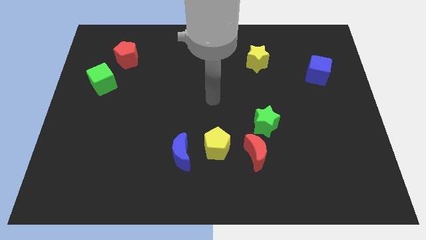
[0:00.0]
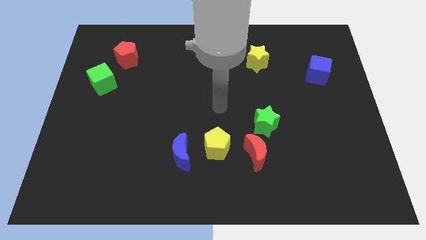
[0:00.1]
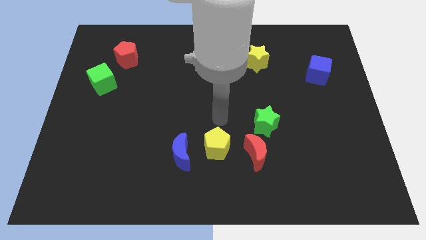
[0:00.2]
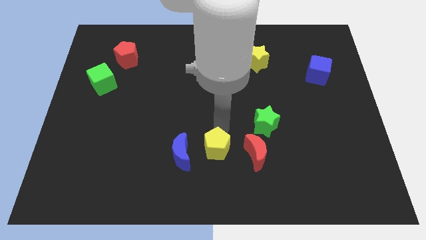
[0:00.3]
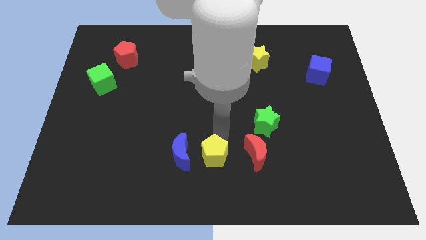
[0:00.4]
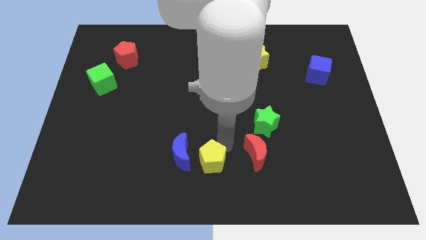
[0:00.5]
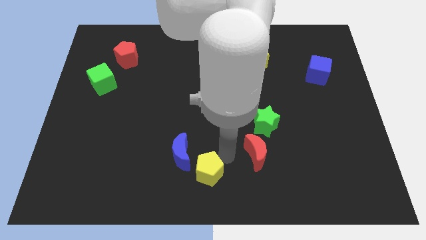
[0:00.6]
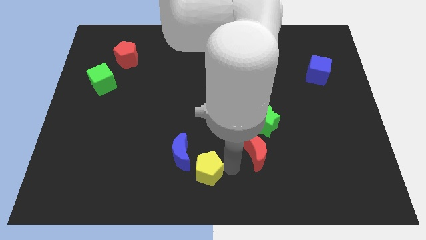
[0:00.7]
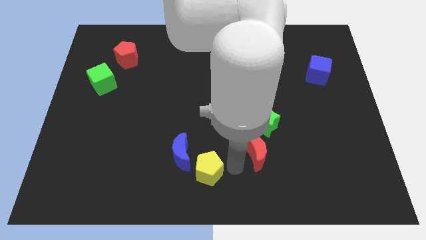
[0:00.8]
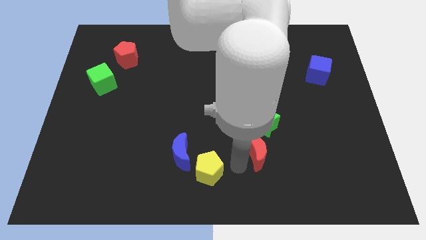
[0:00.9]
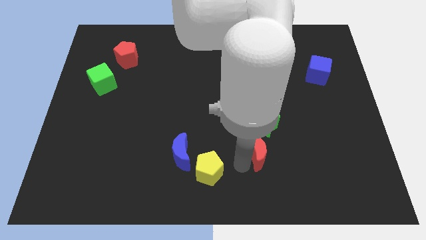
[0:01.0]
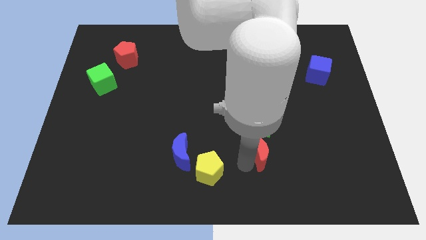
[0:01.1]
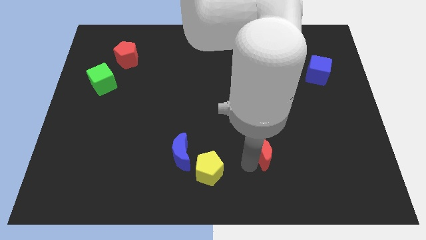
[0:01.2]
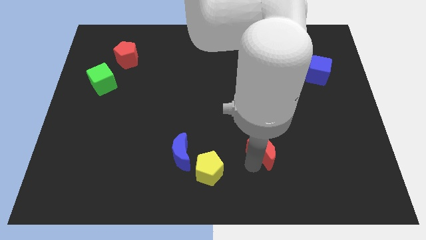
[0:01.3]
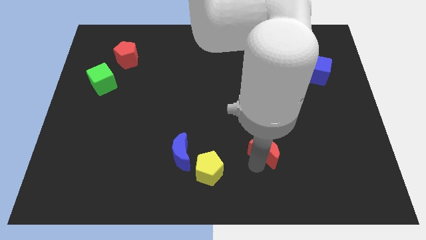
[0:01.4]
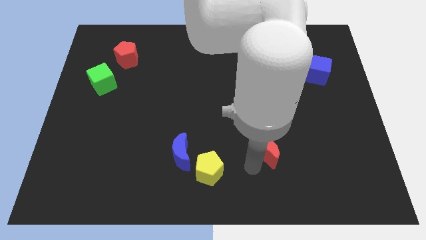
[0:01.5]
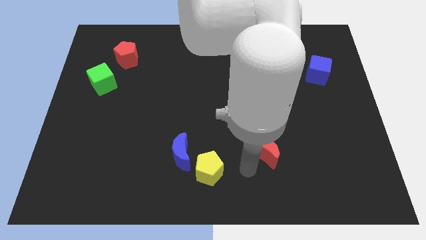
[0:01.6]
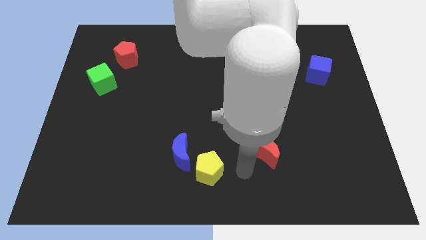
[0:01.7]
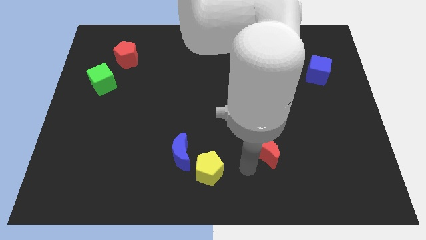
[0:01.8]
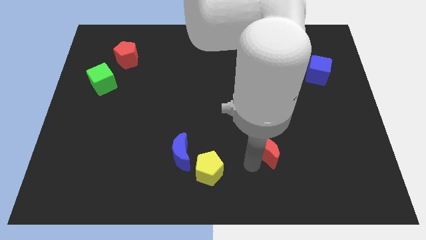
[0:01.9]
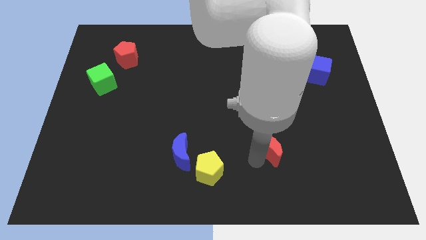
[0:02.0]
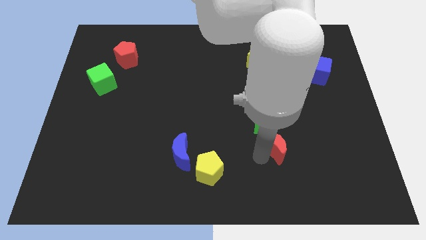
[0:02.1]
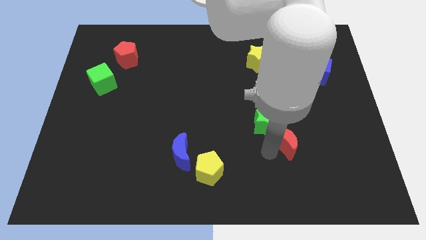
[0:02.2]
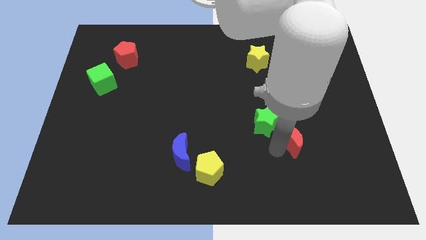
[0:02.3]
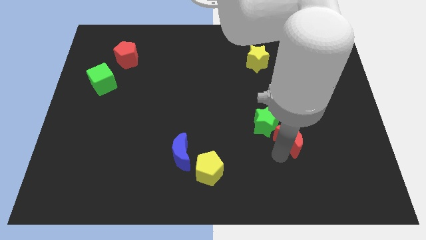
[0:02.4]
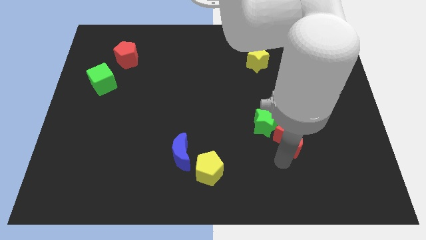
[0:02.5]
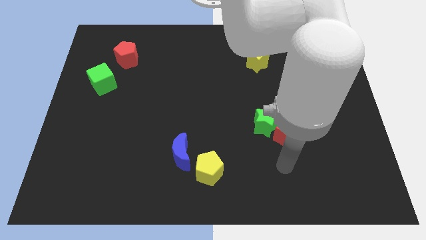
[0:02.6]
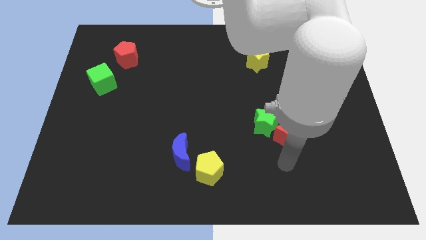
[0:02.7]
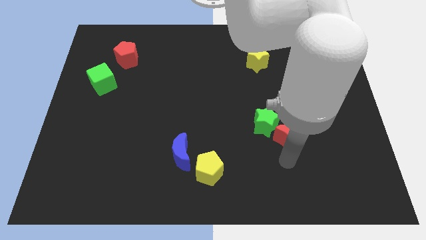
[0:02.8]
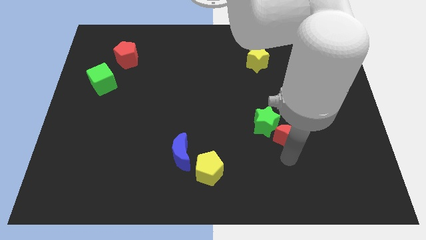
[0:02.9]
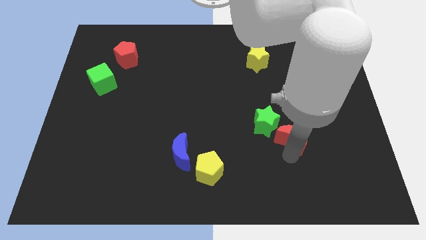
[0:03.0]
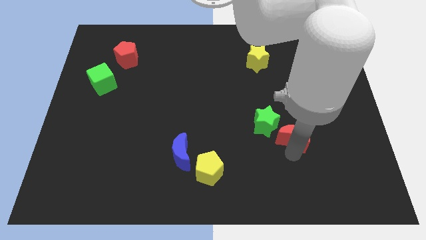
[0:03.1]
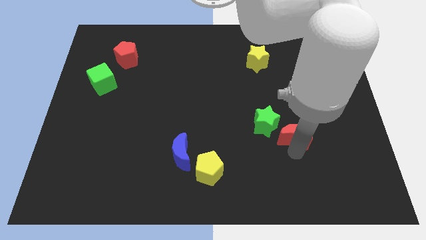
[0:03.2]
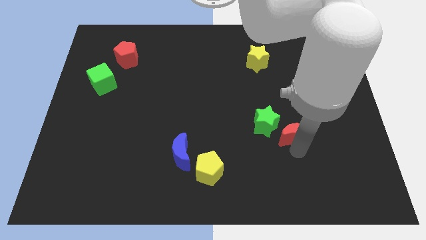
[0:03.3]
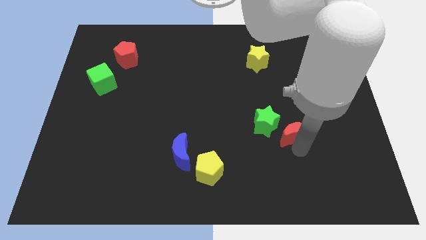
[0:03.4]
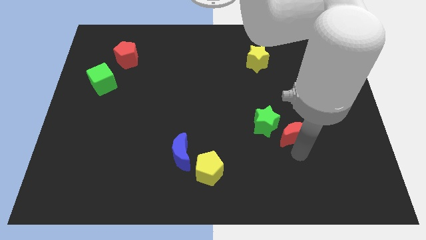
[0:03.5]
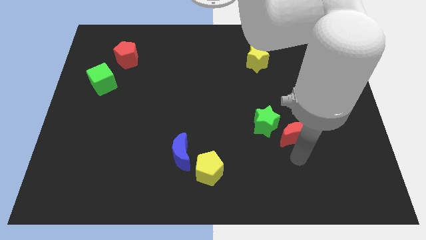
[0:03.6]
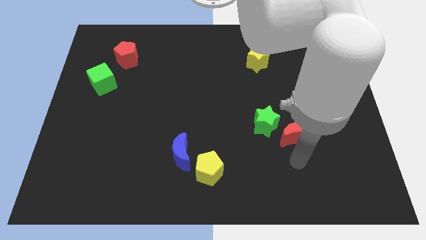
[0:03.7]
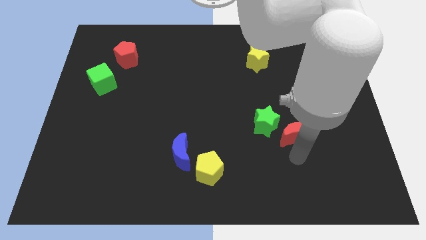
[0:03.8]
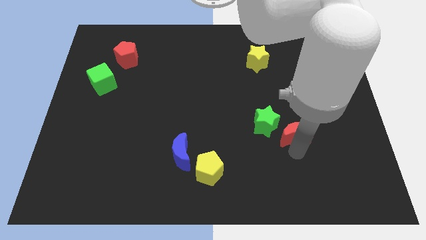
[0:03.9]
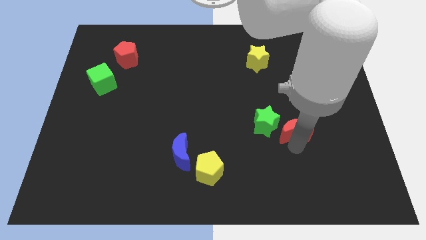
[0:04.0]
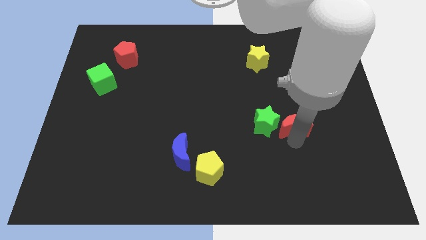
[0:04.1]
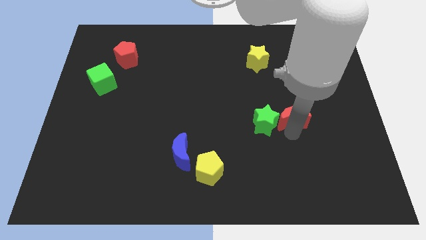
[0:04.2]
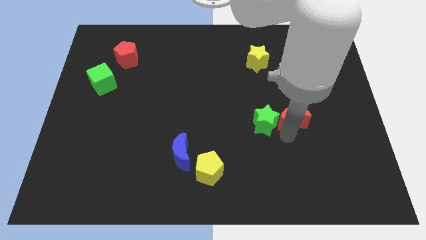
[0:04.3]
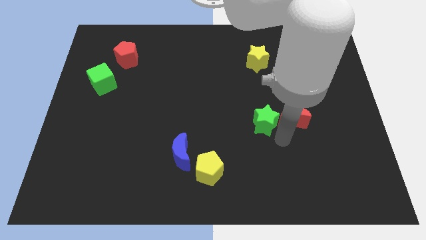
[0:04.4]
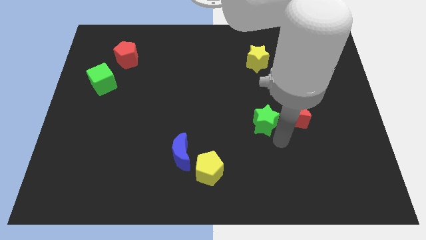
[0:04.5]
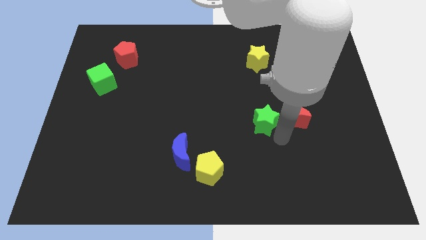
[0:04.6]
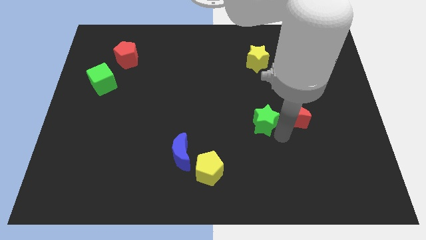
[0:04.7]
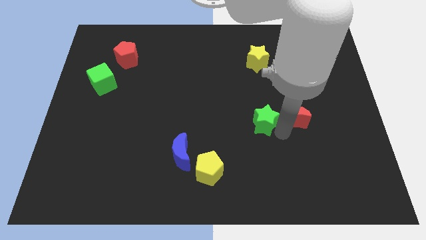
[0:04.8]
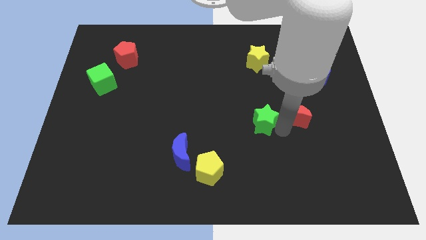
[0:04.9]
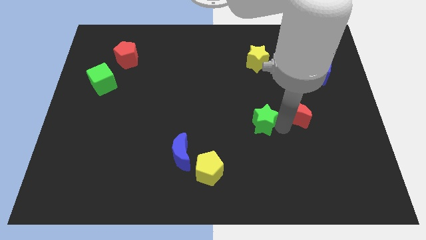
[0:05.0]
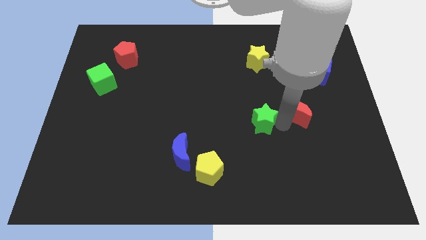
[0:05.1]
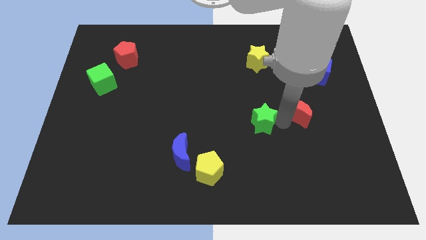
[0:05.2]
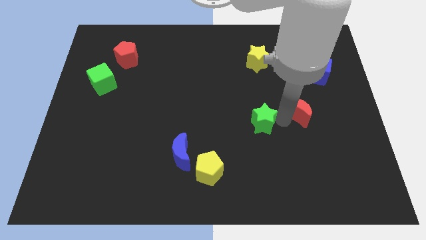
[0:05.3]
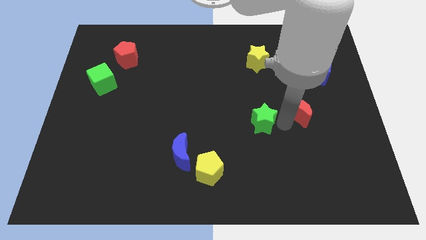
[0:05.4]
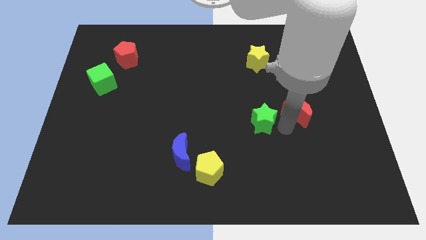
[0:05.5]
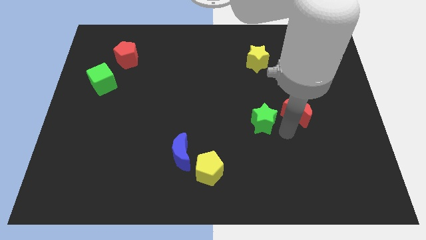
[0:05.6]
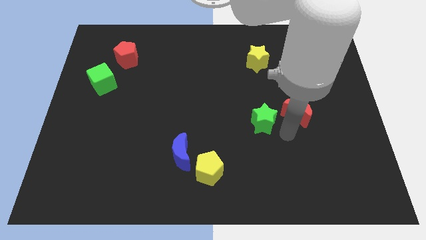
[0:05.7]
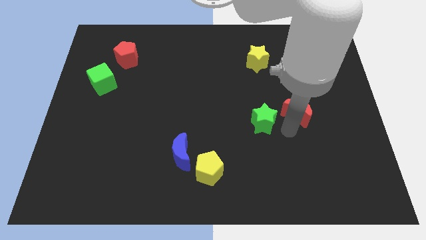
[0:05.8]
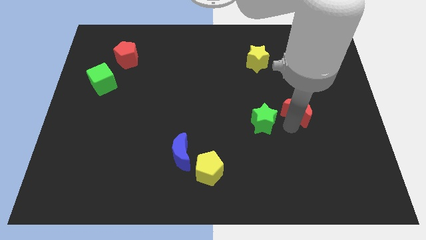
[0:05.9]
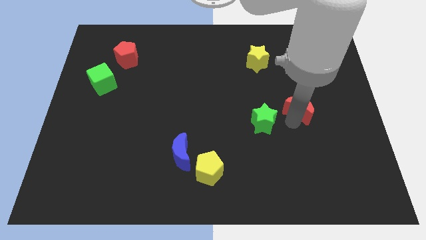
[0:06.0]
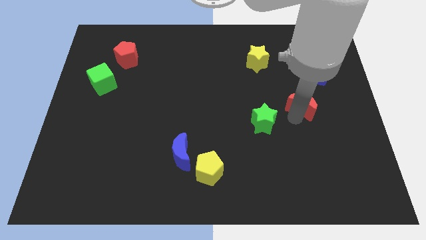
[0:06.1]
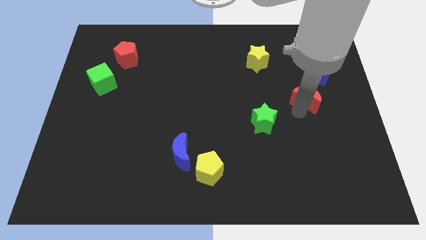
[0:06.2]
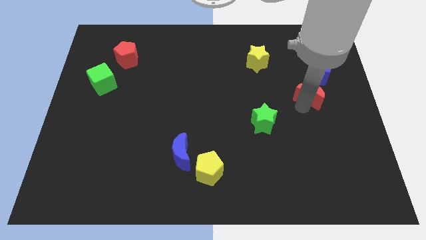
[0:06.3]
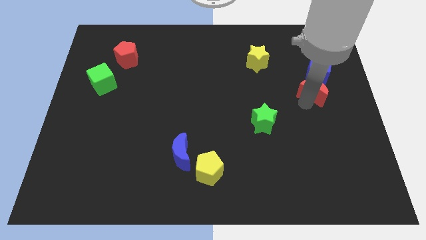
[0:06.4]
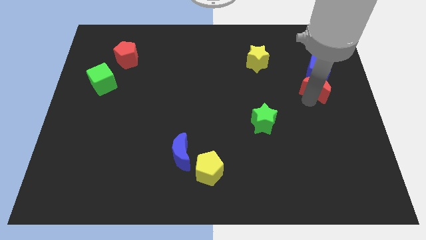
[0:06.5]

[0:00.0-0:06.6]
push the red moon close to the blue cube

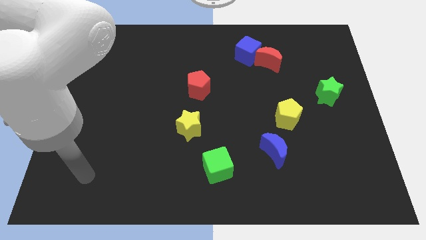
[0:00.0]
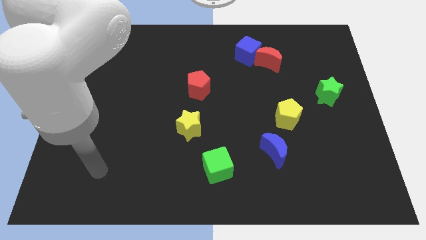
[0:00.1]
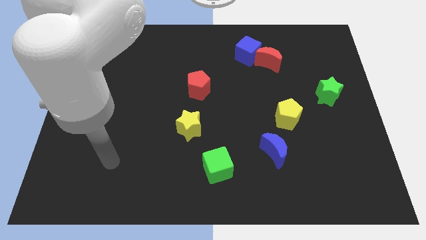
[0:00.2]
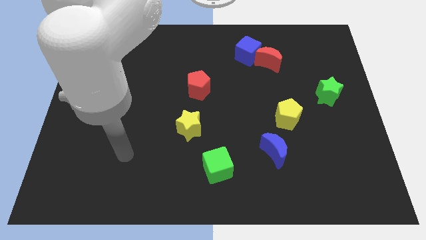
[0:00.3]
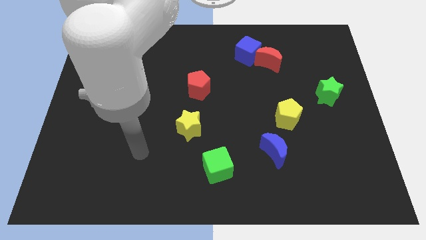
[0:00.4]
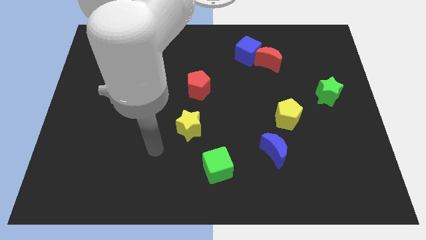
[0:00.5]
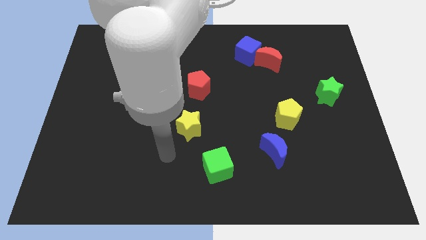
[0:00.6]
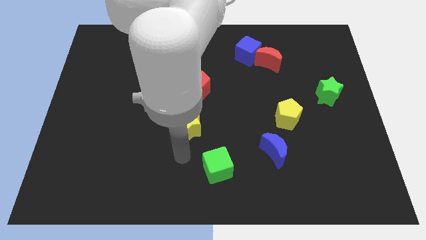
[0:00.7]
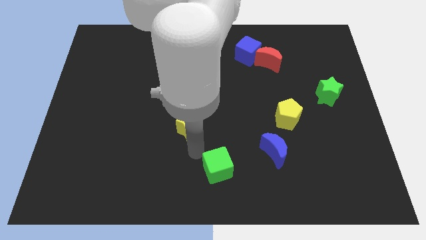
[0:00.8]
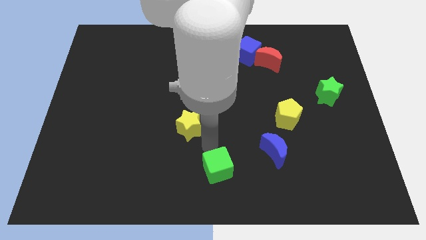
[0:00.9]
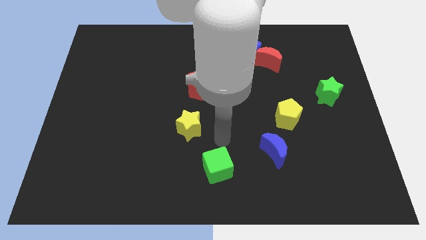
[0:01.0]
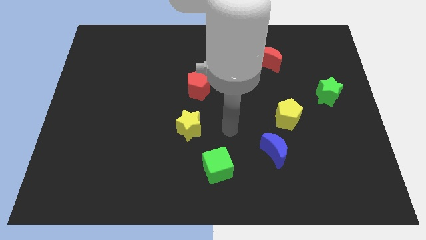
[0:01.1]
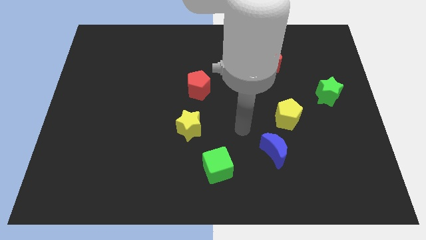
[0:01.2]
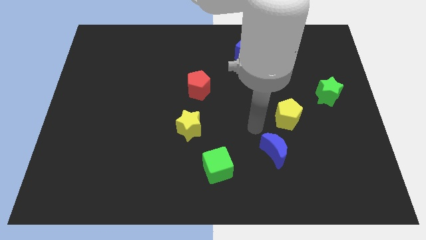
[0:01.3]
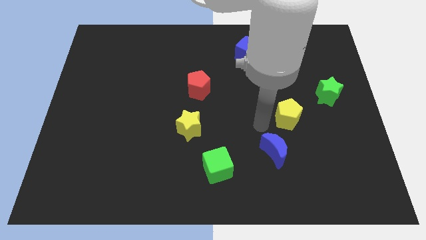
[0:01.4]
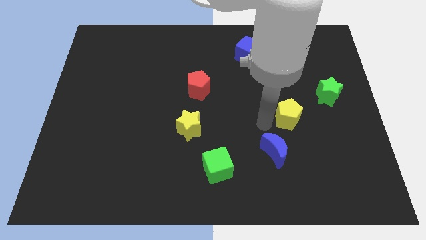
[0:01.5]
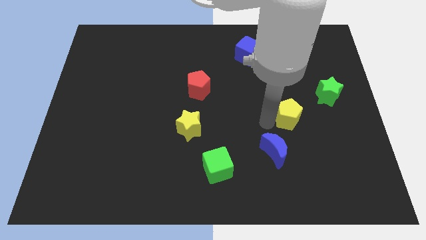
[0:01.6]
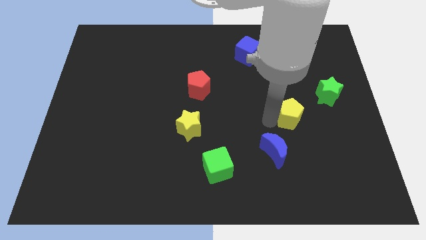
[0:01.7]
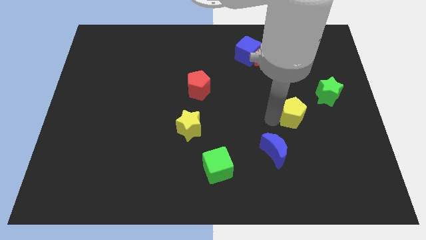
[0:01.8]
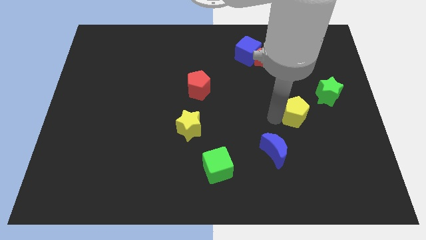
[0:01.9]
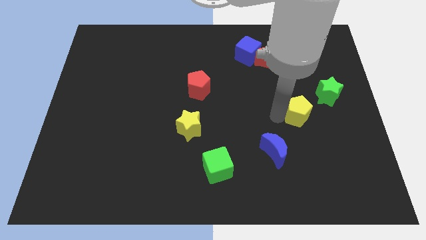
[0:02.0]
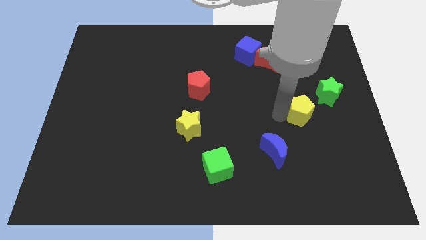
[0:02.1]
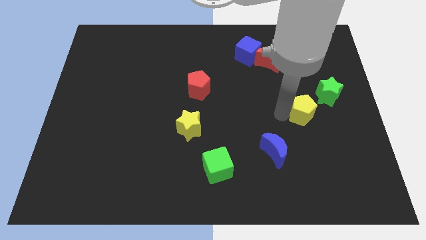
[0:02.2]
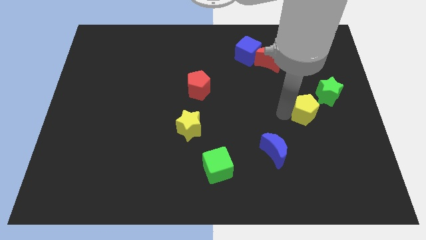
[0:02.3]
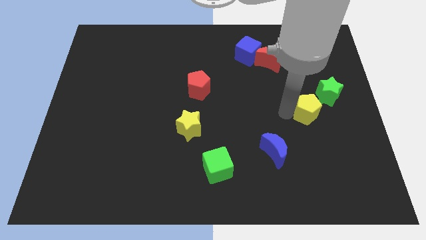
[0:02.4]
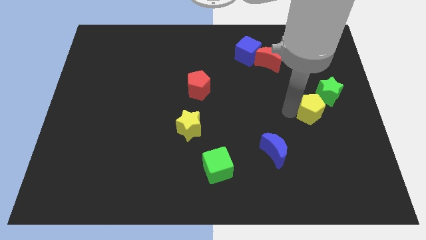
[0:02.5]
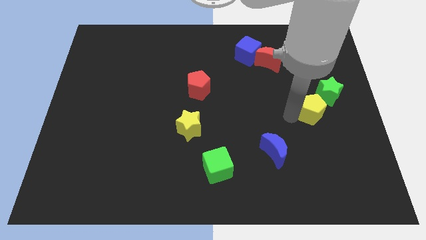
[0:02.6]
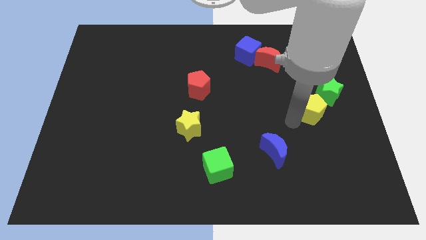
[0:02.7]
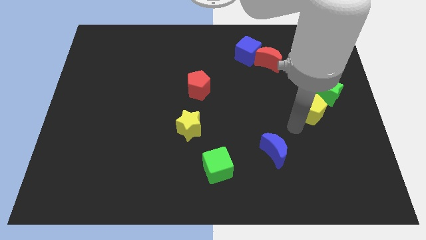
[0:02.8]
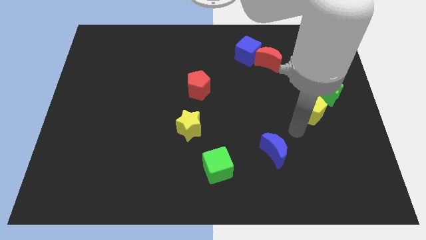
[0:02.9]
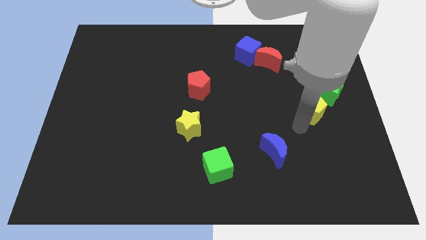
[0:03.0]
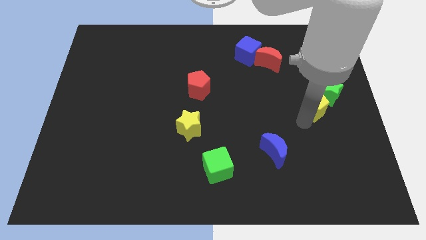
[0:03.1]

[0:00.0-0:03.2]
push the yellow pentagon to the green star
